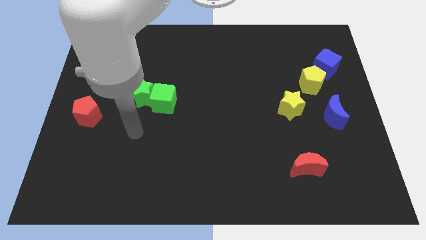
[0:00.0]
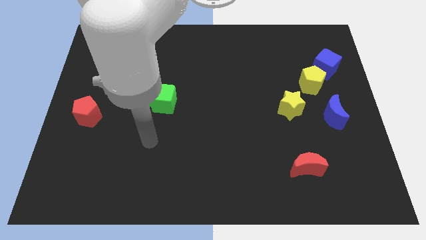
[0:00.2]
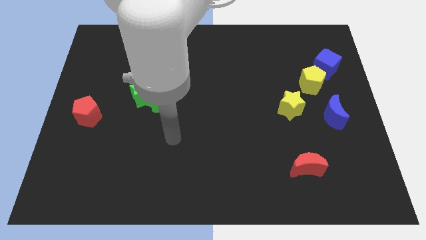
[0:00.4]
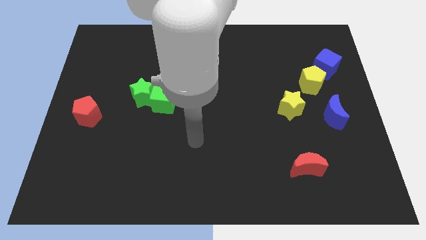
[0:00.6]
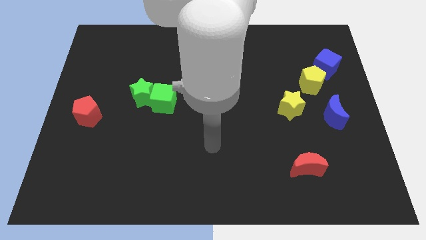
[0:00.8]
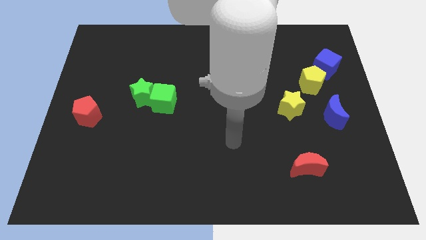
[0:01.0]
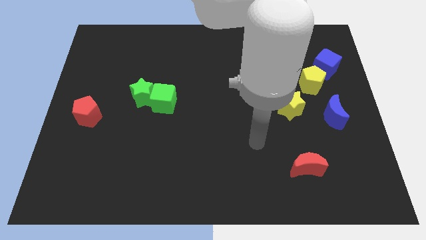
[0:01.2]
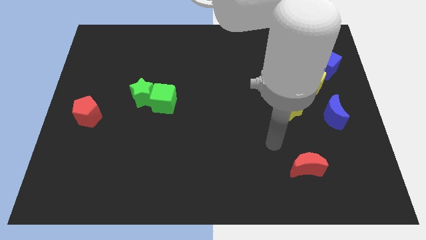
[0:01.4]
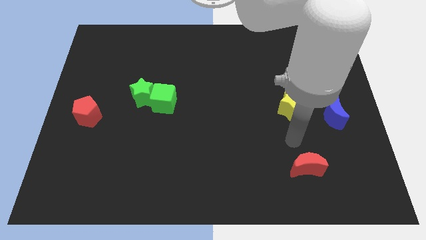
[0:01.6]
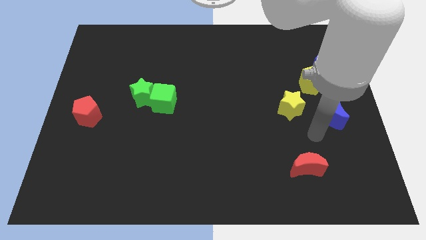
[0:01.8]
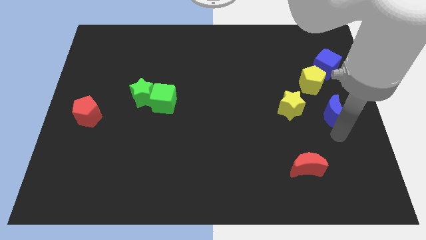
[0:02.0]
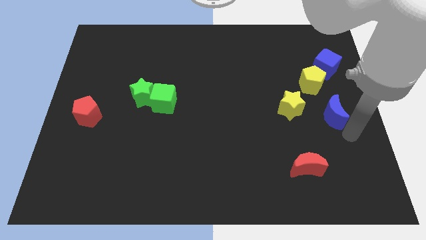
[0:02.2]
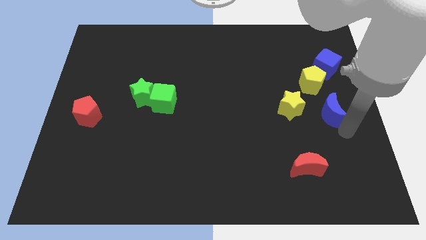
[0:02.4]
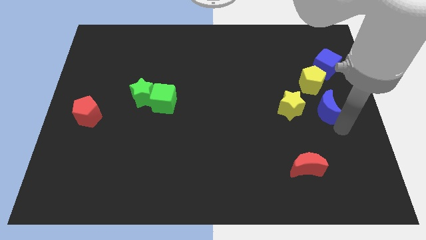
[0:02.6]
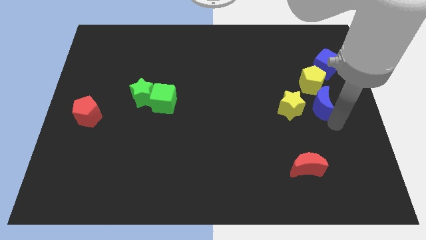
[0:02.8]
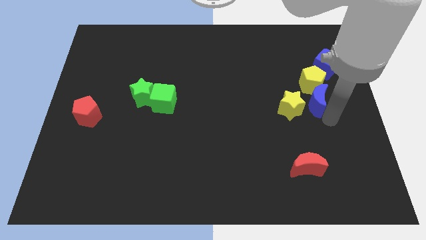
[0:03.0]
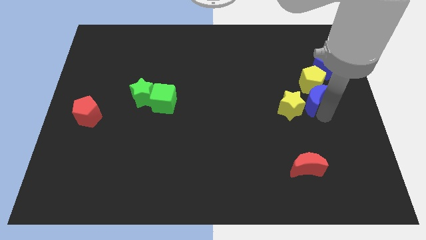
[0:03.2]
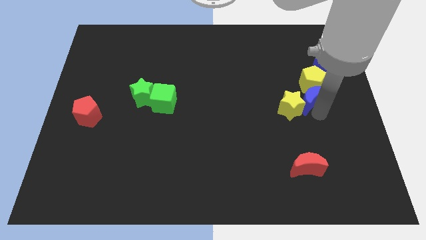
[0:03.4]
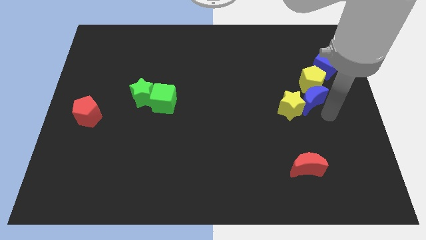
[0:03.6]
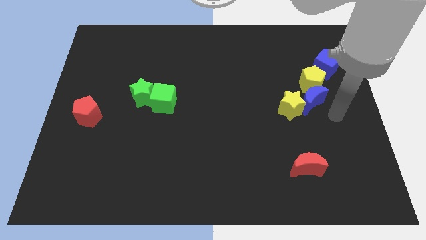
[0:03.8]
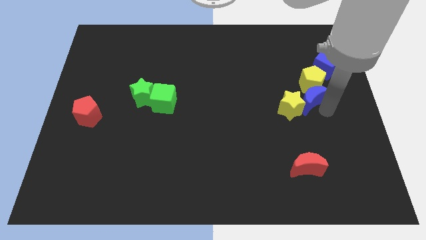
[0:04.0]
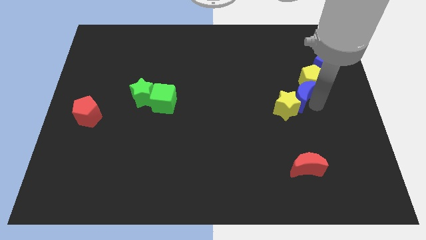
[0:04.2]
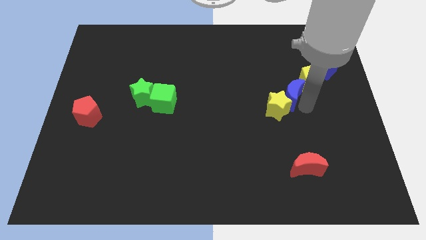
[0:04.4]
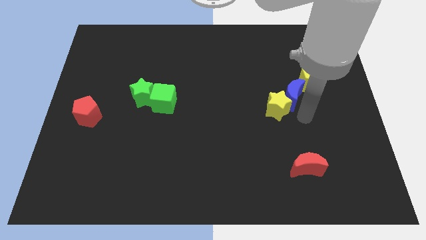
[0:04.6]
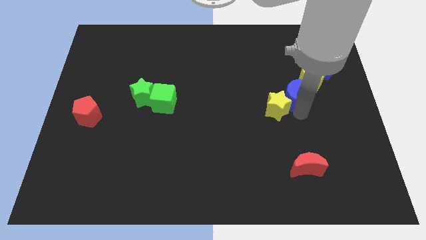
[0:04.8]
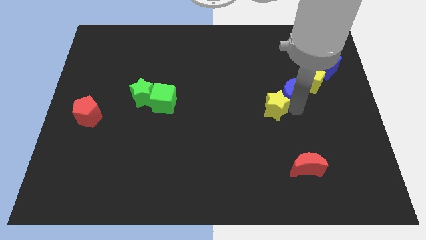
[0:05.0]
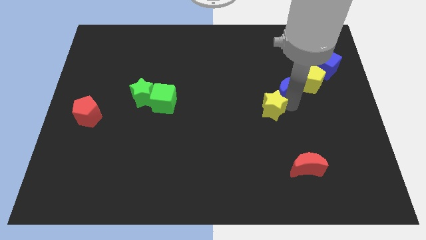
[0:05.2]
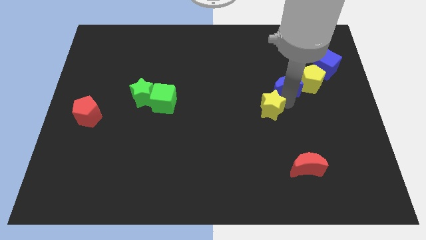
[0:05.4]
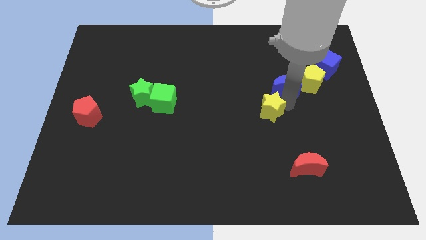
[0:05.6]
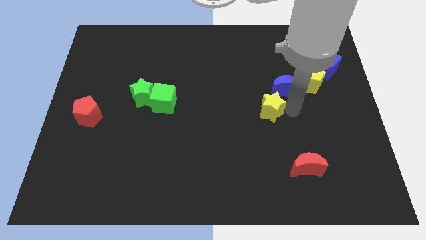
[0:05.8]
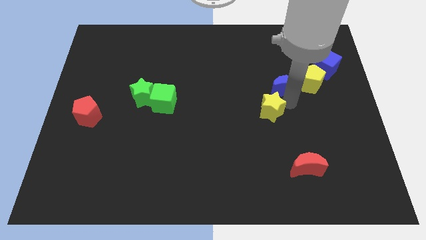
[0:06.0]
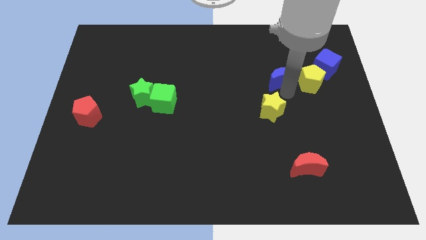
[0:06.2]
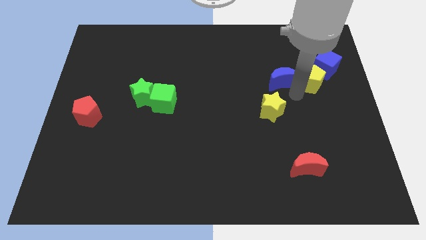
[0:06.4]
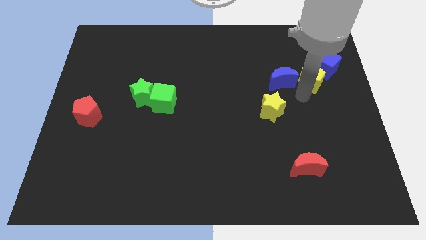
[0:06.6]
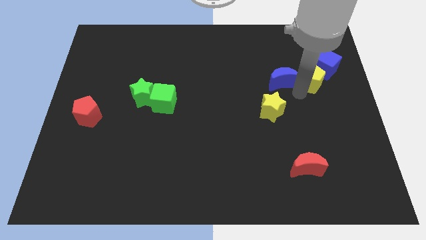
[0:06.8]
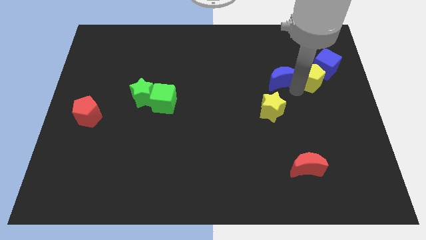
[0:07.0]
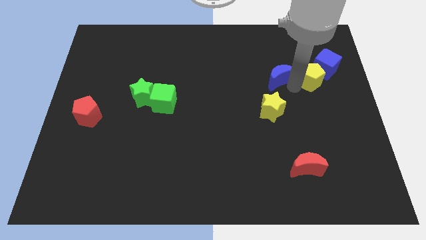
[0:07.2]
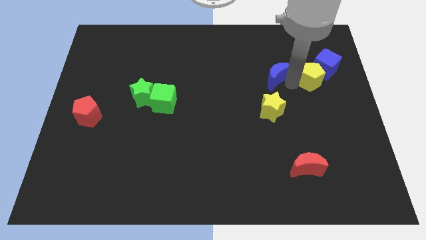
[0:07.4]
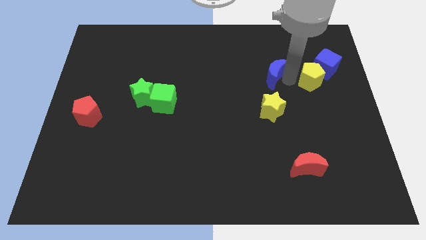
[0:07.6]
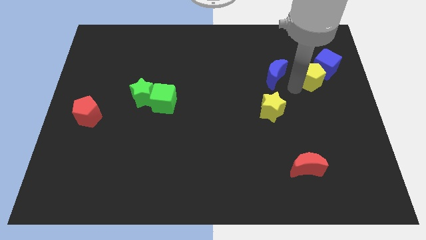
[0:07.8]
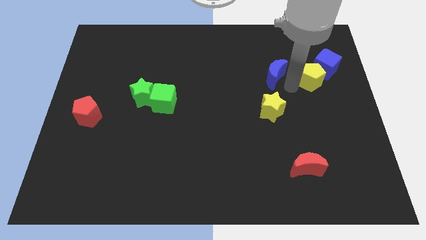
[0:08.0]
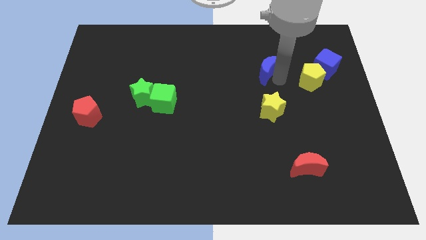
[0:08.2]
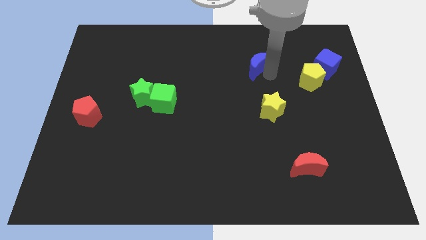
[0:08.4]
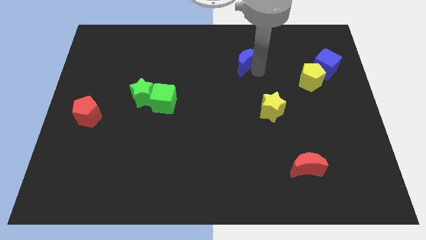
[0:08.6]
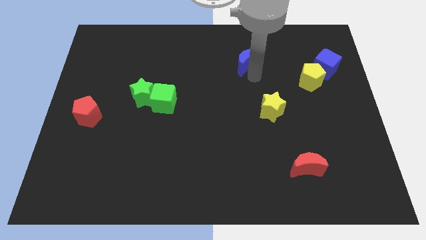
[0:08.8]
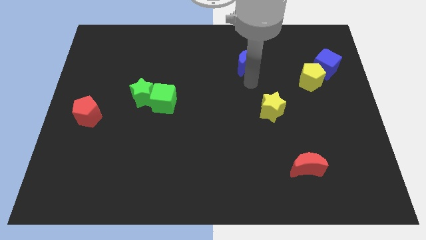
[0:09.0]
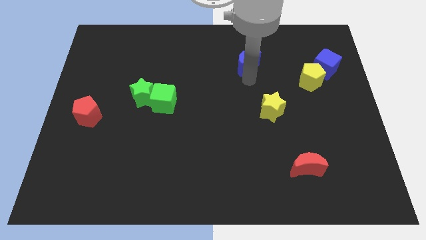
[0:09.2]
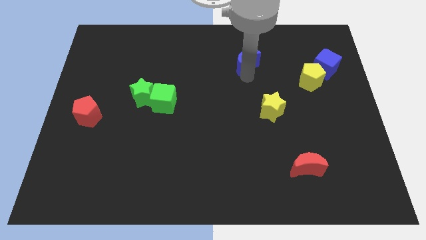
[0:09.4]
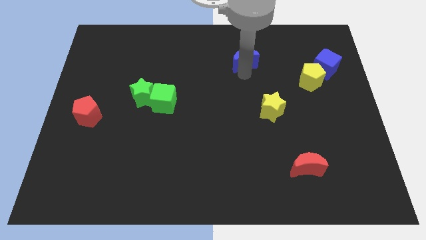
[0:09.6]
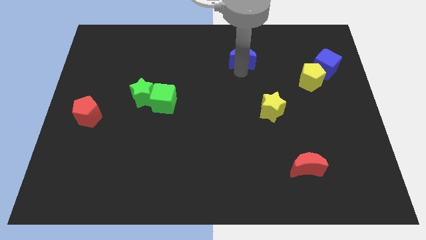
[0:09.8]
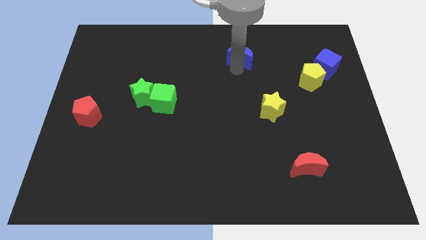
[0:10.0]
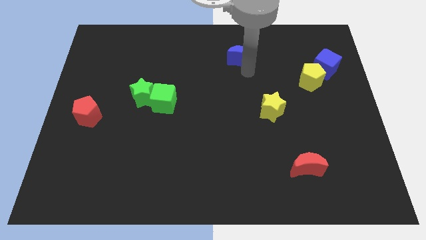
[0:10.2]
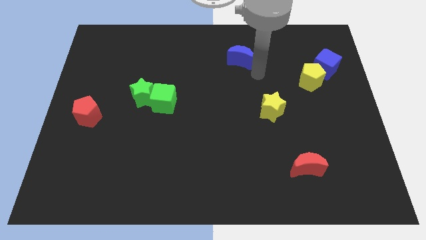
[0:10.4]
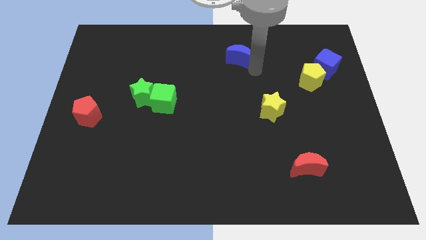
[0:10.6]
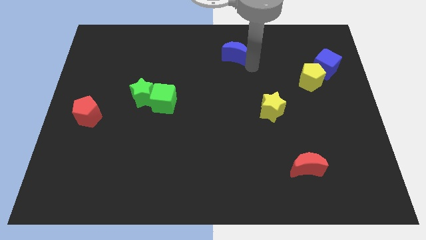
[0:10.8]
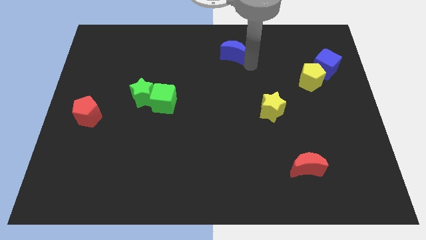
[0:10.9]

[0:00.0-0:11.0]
put the blue moon to the towards your base
